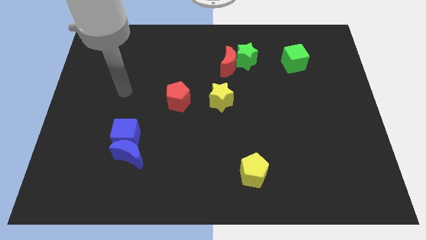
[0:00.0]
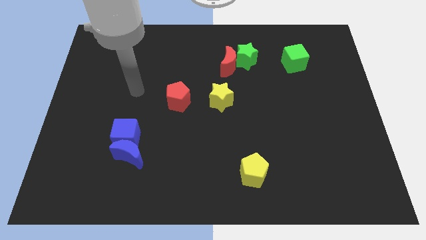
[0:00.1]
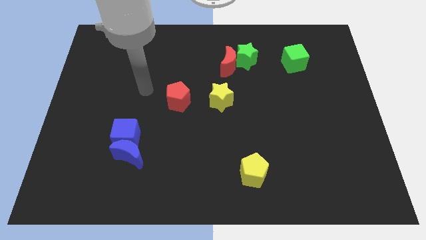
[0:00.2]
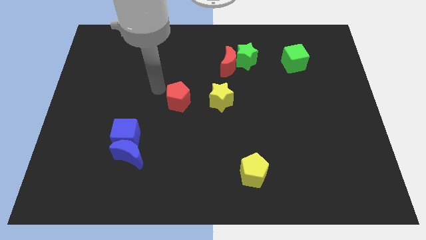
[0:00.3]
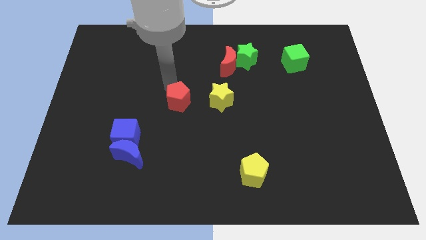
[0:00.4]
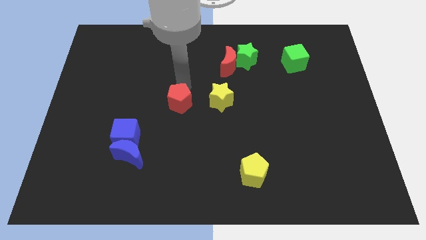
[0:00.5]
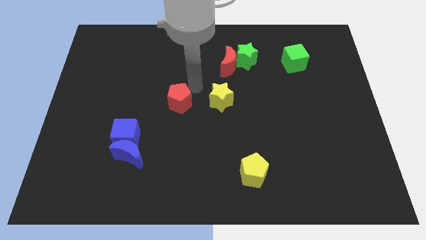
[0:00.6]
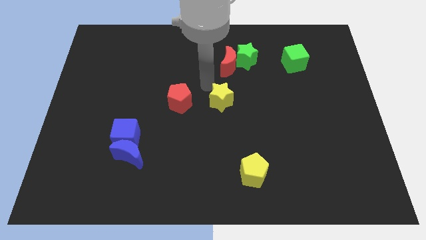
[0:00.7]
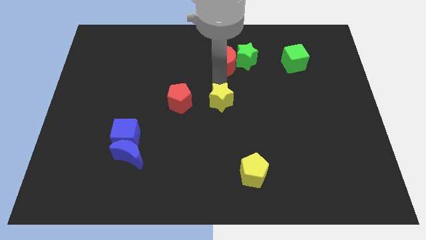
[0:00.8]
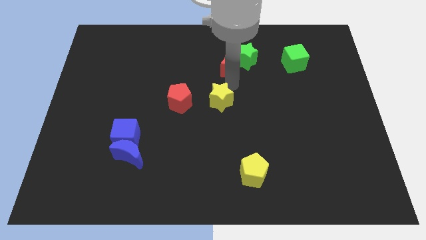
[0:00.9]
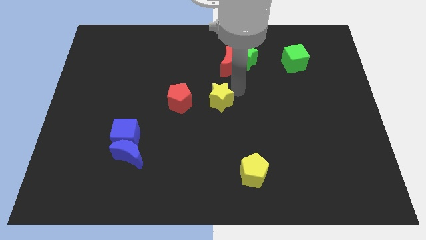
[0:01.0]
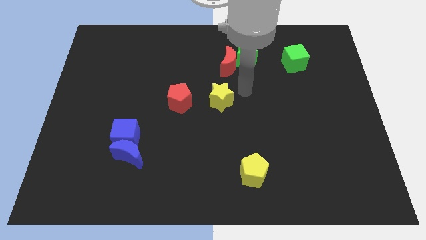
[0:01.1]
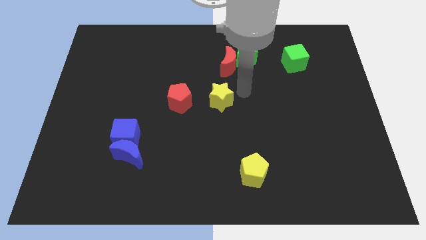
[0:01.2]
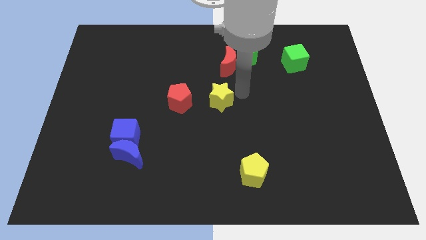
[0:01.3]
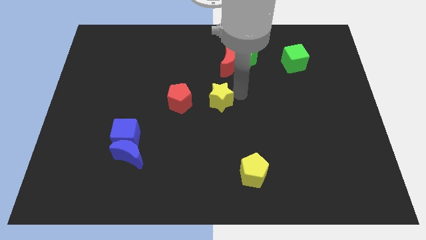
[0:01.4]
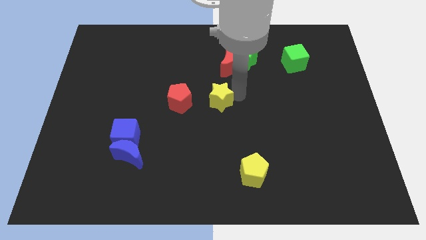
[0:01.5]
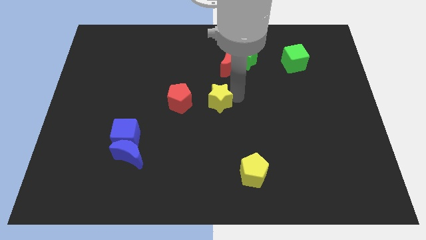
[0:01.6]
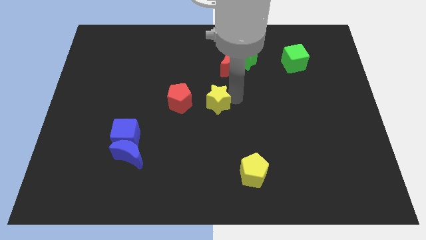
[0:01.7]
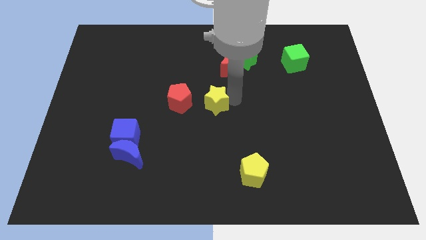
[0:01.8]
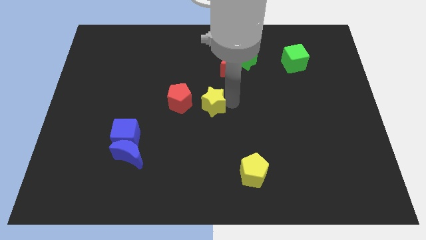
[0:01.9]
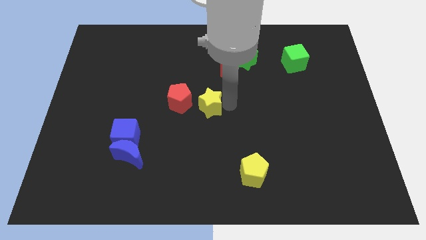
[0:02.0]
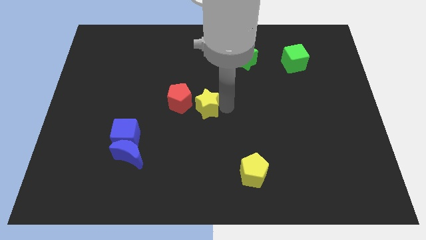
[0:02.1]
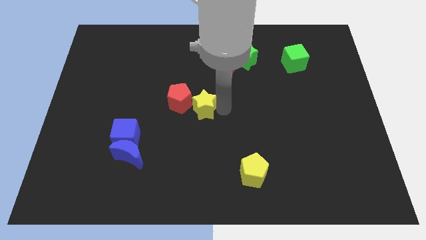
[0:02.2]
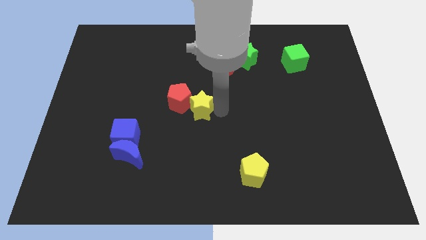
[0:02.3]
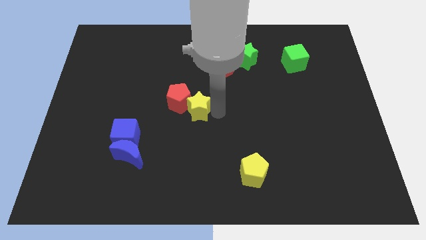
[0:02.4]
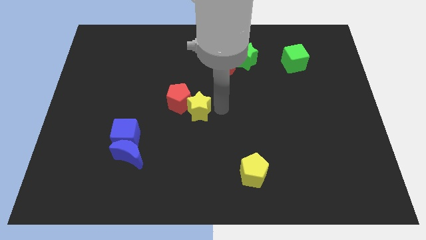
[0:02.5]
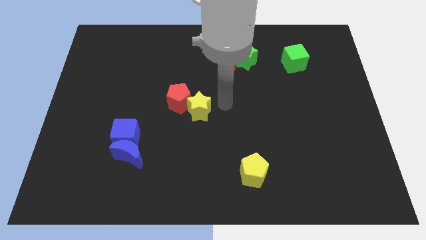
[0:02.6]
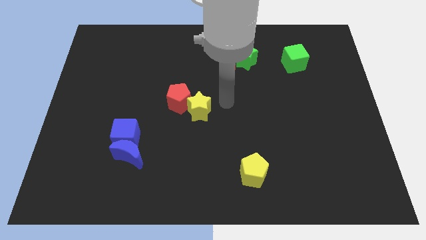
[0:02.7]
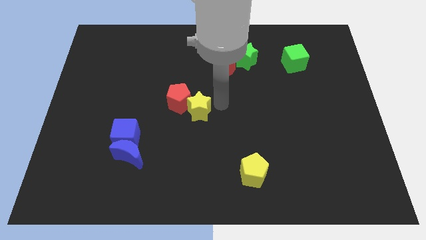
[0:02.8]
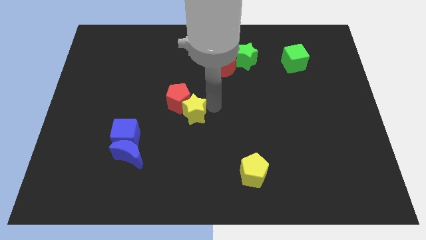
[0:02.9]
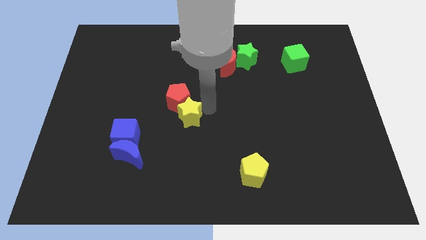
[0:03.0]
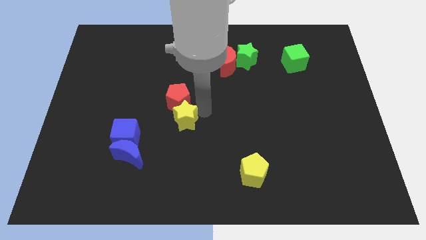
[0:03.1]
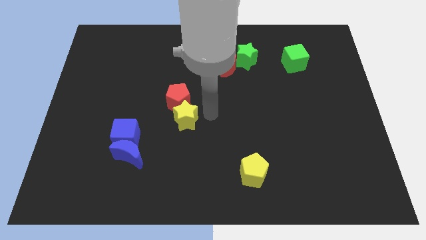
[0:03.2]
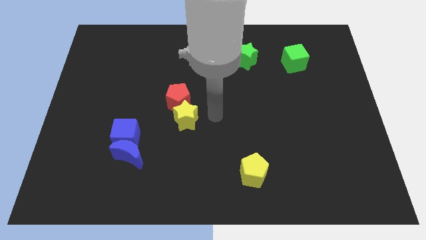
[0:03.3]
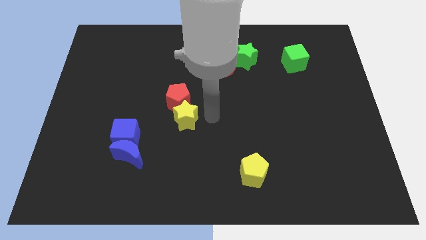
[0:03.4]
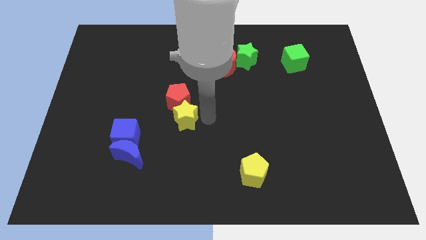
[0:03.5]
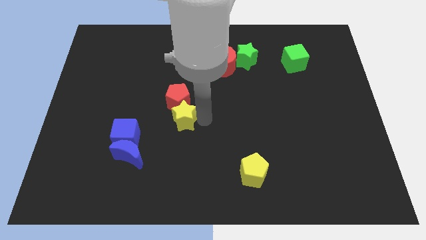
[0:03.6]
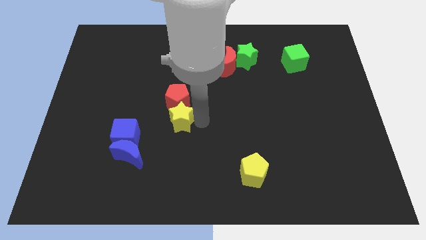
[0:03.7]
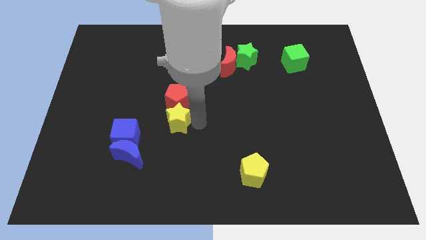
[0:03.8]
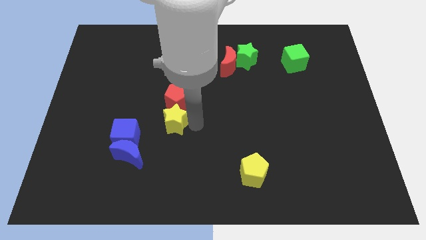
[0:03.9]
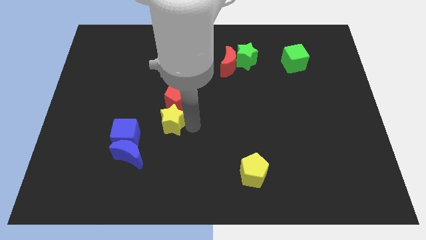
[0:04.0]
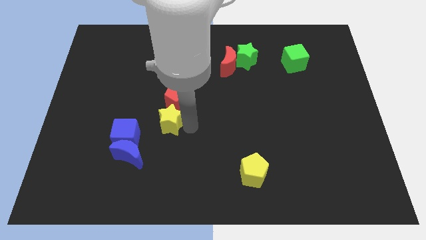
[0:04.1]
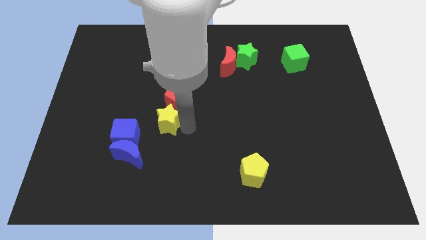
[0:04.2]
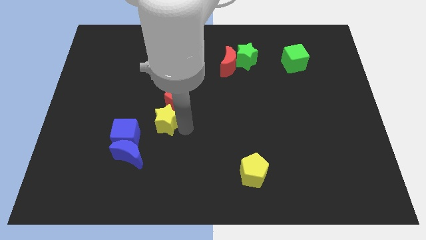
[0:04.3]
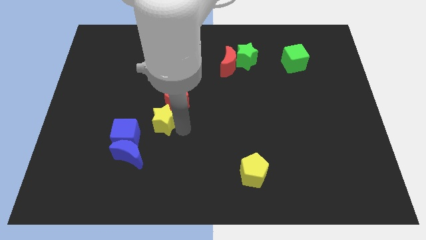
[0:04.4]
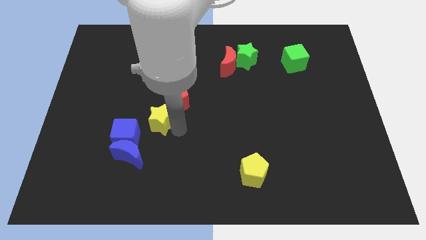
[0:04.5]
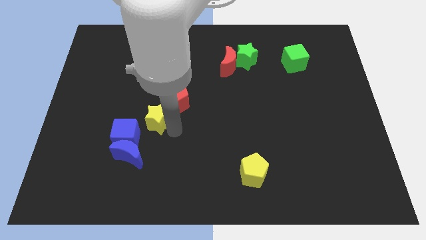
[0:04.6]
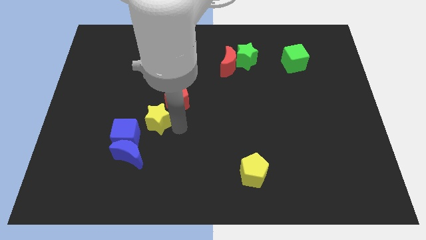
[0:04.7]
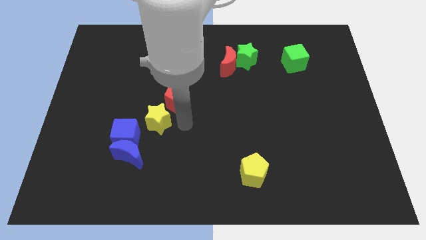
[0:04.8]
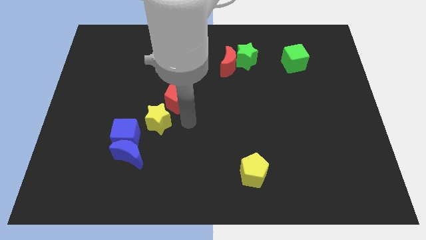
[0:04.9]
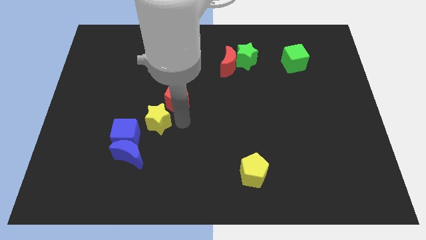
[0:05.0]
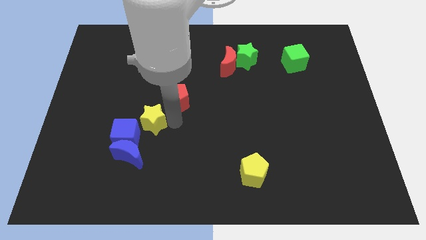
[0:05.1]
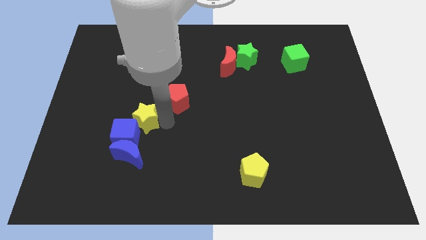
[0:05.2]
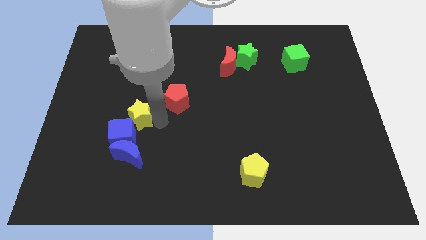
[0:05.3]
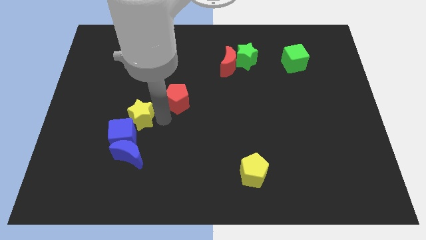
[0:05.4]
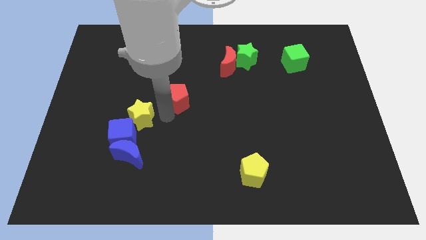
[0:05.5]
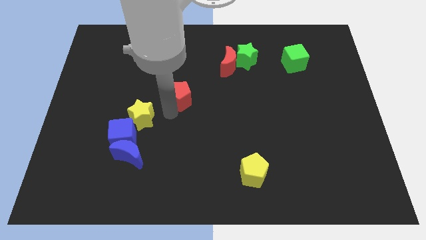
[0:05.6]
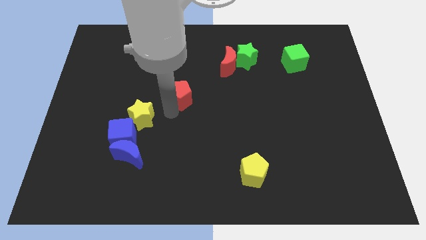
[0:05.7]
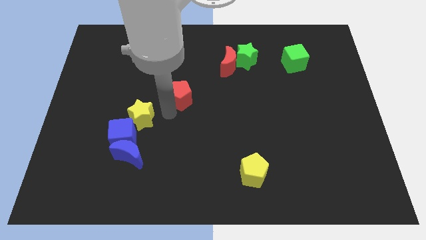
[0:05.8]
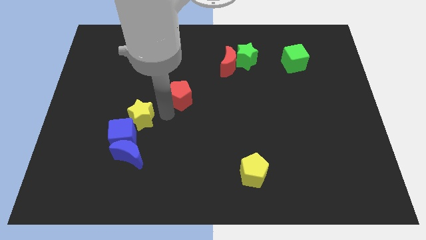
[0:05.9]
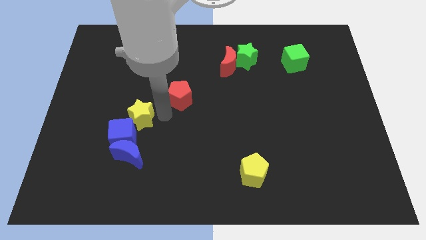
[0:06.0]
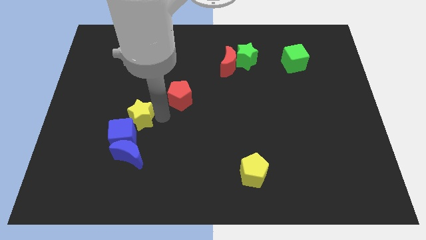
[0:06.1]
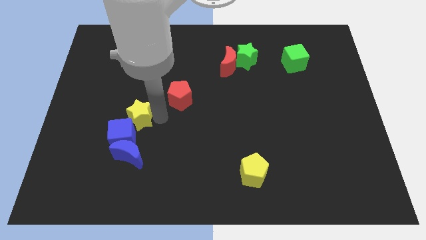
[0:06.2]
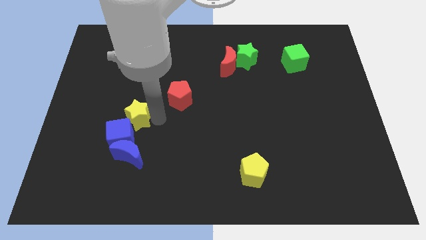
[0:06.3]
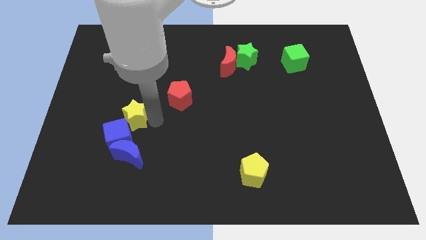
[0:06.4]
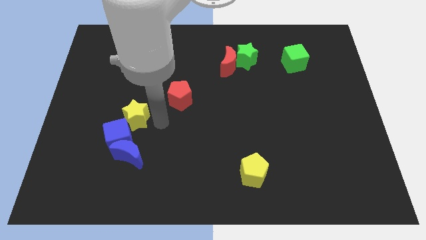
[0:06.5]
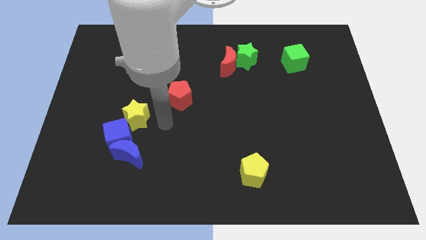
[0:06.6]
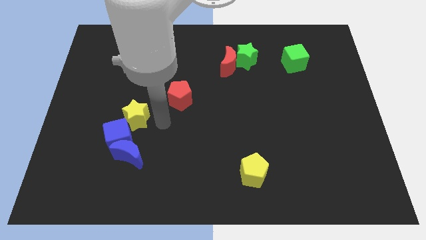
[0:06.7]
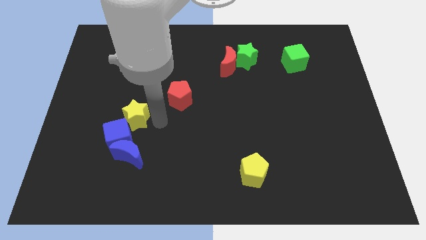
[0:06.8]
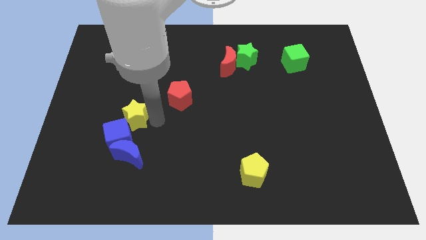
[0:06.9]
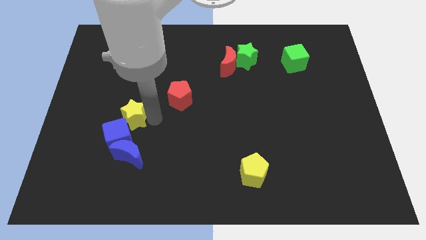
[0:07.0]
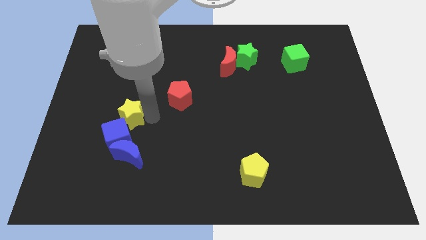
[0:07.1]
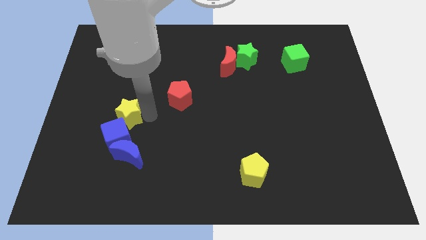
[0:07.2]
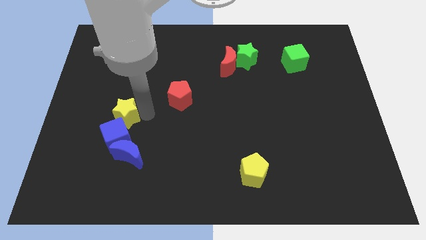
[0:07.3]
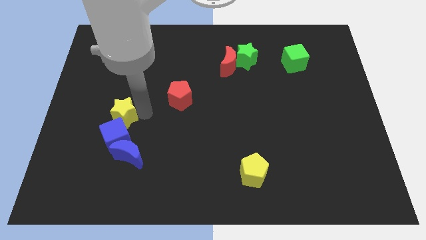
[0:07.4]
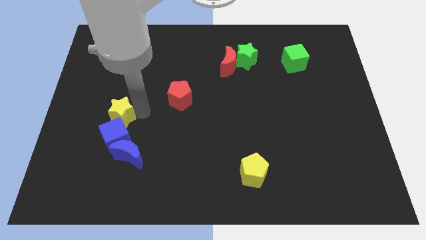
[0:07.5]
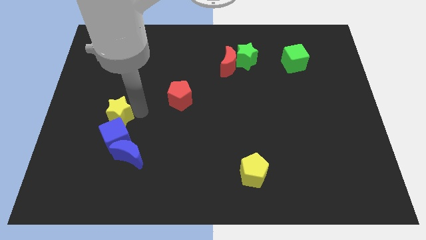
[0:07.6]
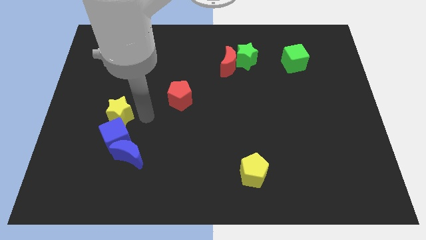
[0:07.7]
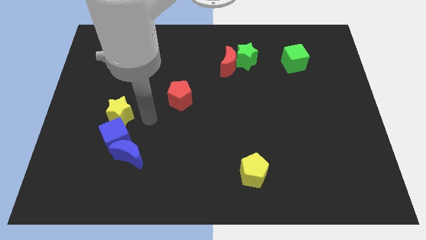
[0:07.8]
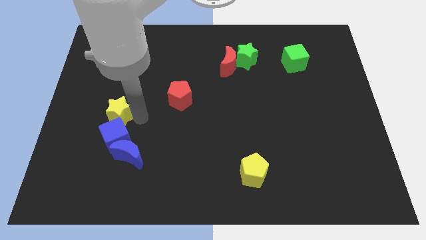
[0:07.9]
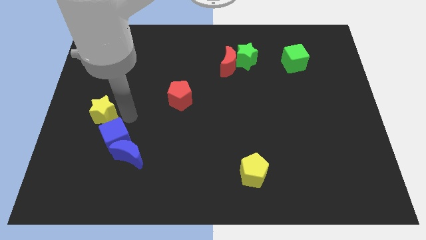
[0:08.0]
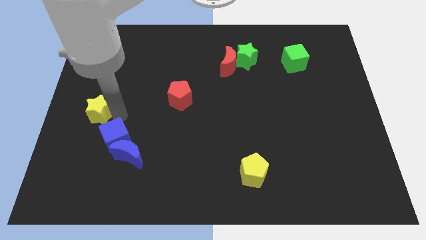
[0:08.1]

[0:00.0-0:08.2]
push the yellow star to the center left
